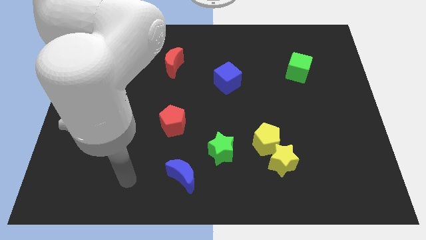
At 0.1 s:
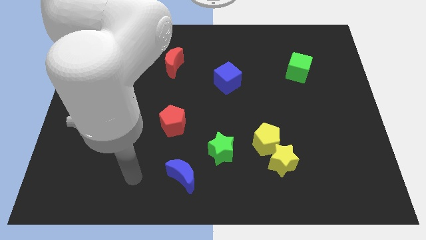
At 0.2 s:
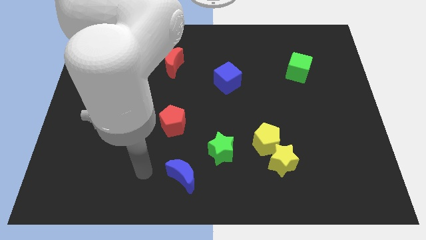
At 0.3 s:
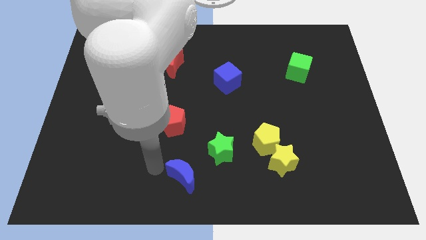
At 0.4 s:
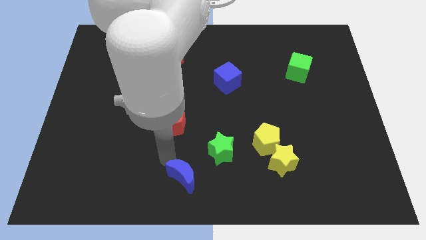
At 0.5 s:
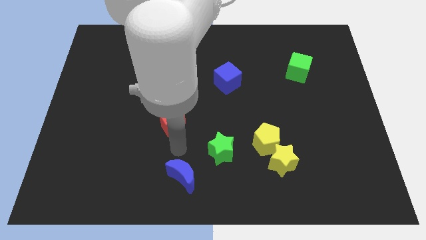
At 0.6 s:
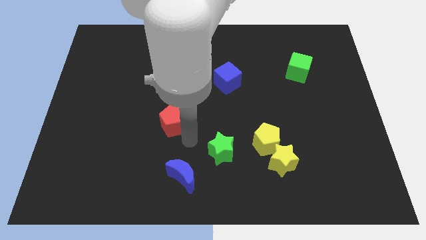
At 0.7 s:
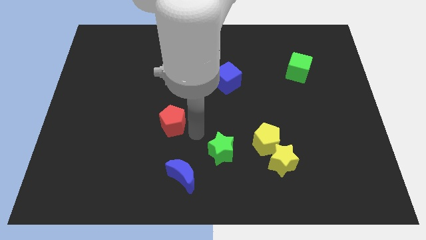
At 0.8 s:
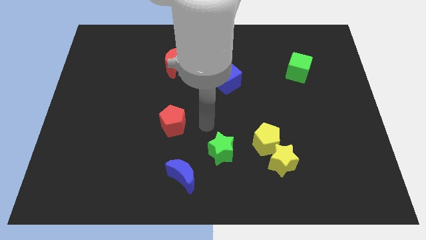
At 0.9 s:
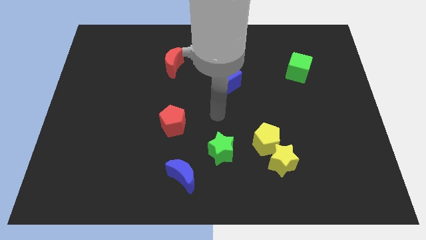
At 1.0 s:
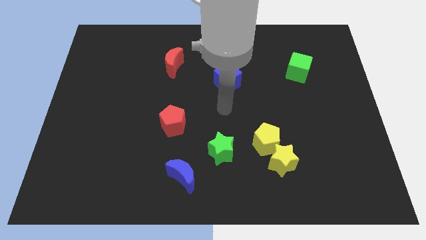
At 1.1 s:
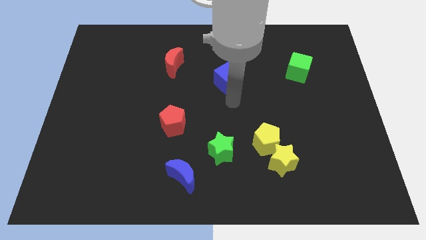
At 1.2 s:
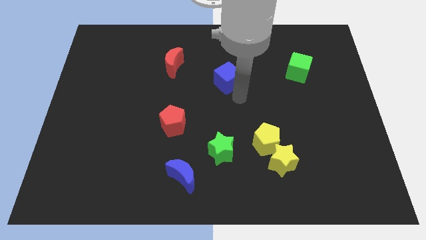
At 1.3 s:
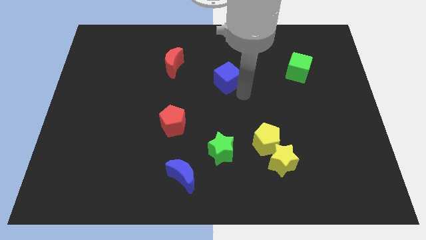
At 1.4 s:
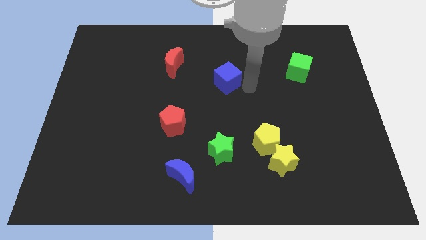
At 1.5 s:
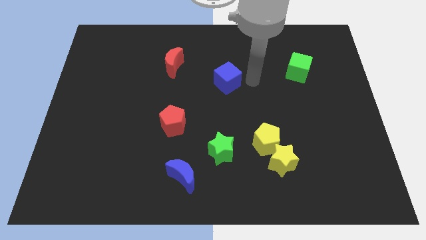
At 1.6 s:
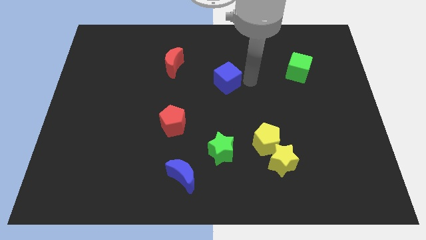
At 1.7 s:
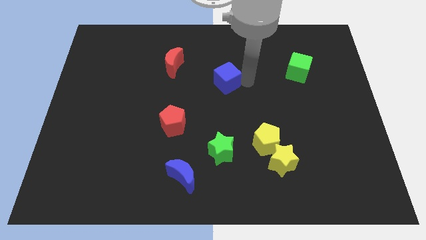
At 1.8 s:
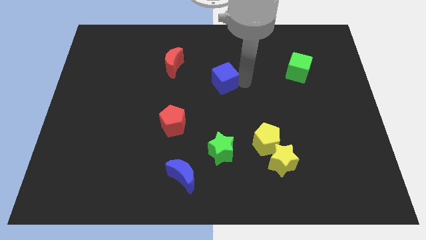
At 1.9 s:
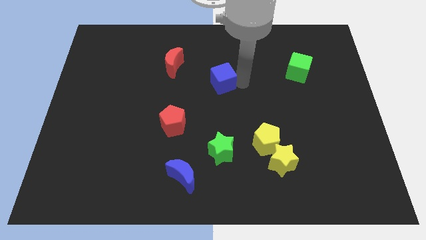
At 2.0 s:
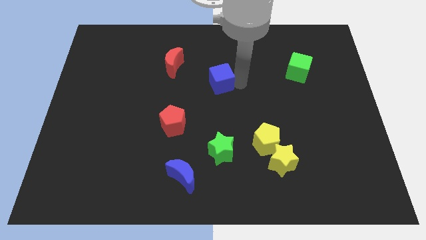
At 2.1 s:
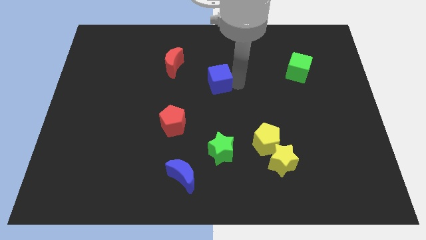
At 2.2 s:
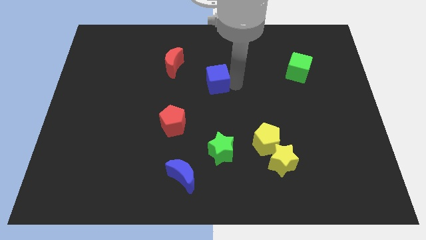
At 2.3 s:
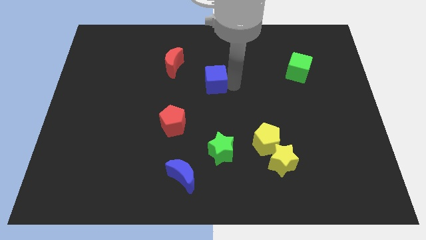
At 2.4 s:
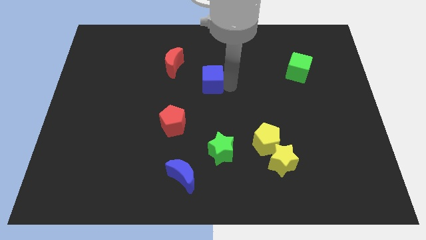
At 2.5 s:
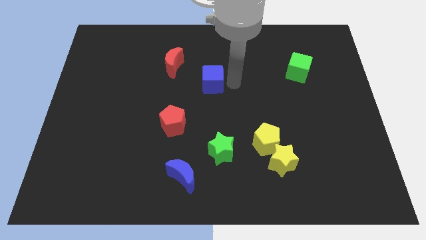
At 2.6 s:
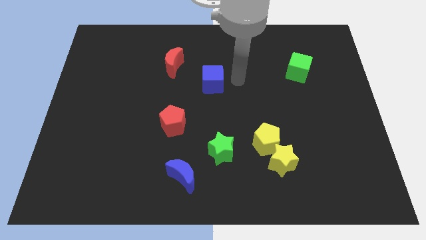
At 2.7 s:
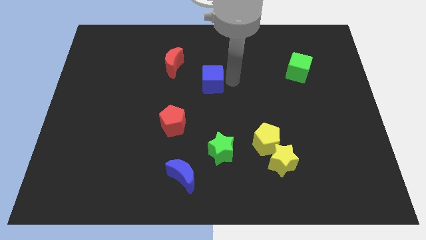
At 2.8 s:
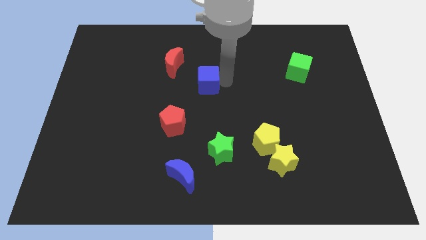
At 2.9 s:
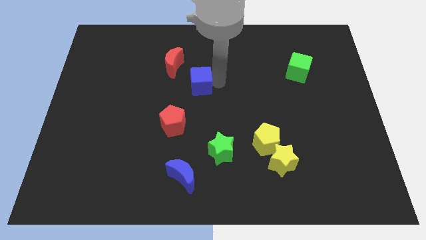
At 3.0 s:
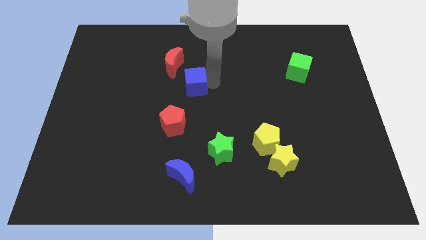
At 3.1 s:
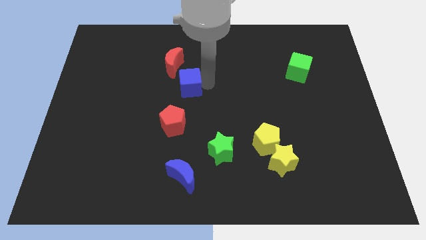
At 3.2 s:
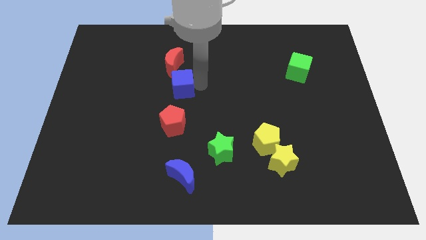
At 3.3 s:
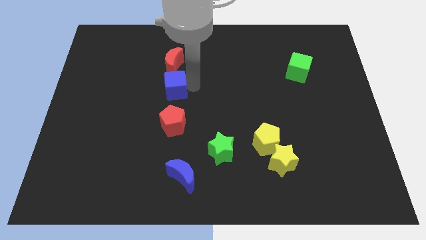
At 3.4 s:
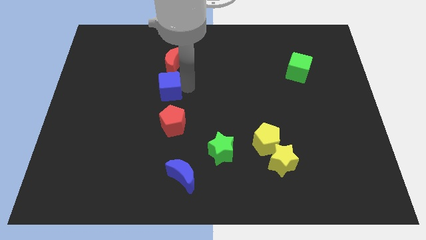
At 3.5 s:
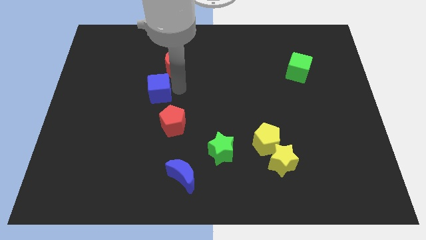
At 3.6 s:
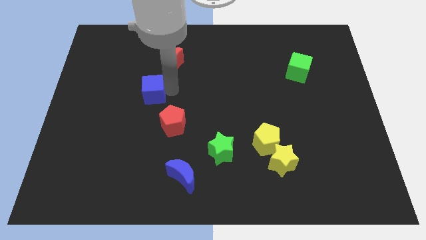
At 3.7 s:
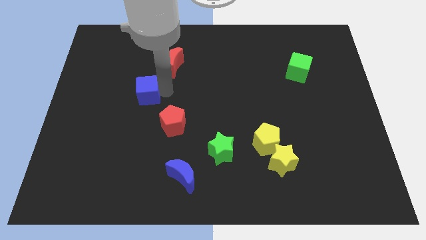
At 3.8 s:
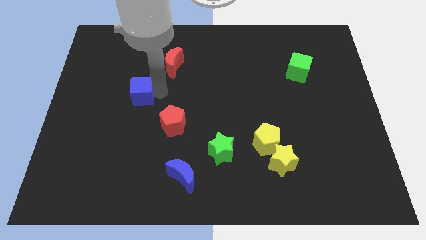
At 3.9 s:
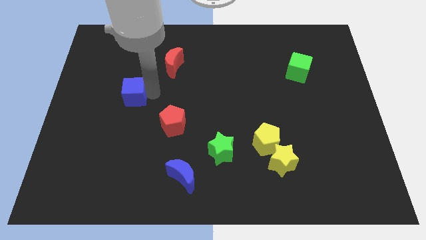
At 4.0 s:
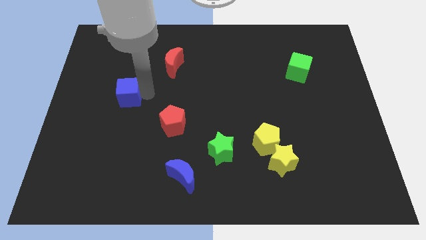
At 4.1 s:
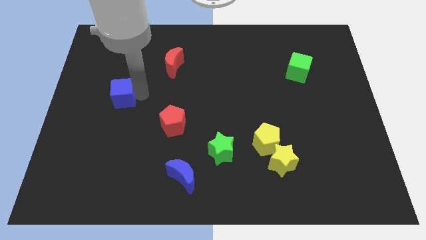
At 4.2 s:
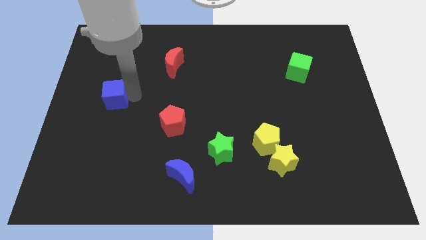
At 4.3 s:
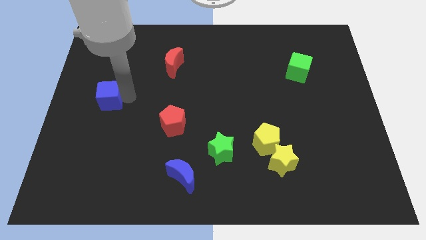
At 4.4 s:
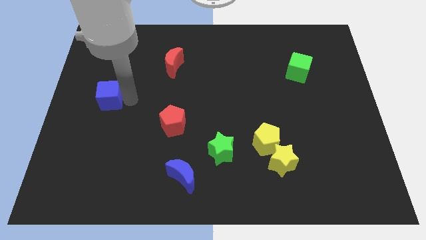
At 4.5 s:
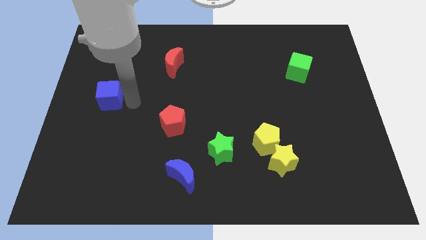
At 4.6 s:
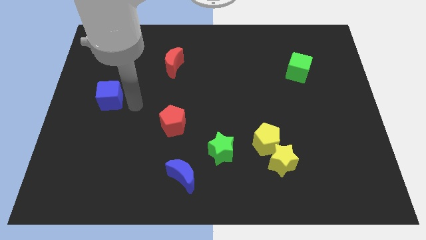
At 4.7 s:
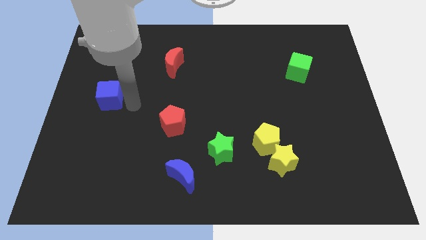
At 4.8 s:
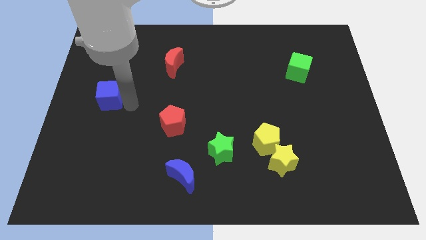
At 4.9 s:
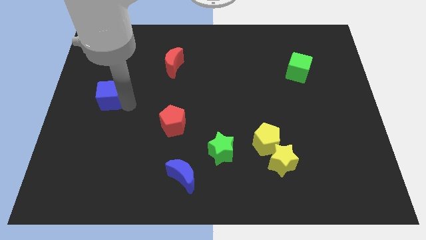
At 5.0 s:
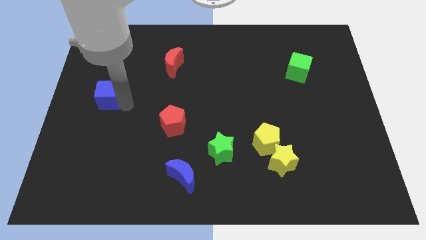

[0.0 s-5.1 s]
put the blue cube to the left side

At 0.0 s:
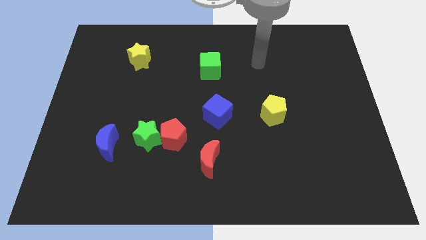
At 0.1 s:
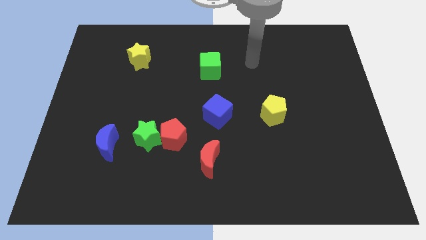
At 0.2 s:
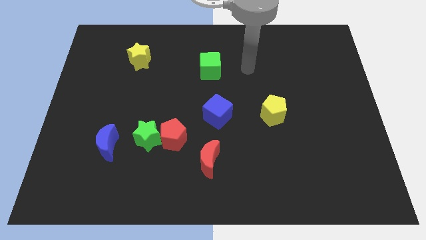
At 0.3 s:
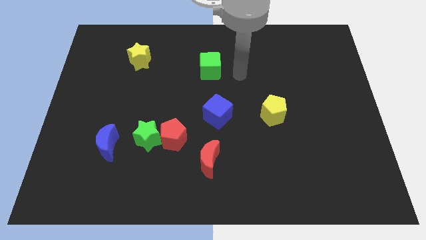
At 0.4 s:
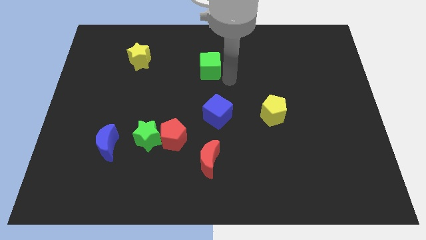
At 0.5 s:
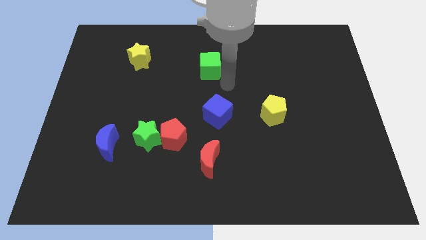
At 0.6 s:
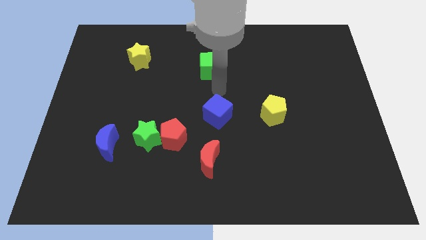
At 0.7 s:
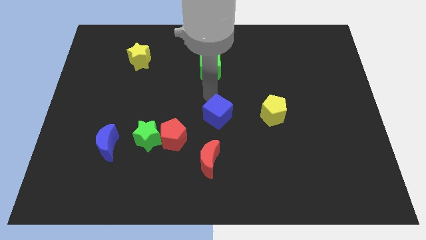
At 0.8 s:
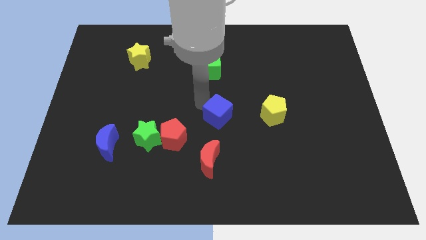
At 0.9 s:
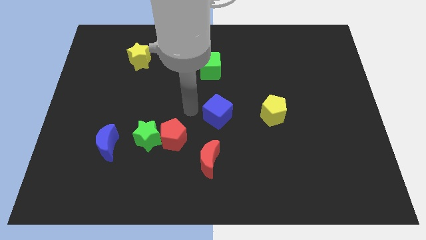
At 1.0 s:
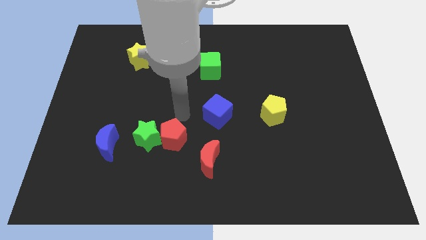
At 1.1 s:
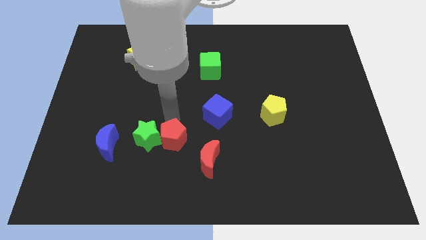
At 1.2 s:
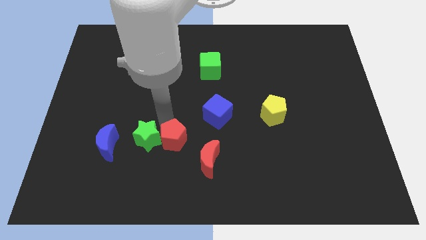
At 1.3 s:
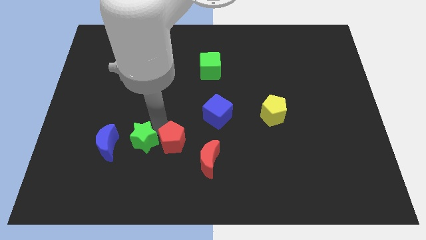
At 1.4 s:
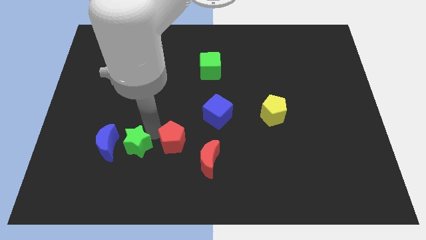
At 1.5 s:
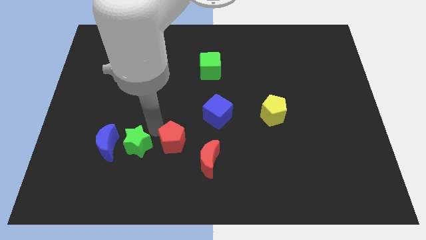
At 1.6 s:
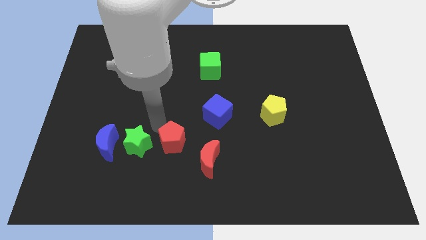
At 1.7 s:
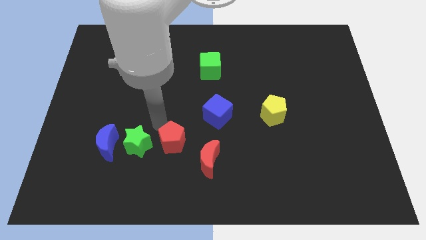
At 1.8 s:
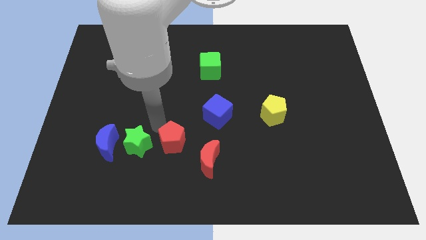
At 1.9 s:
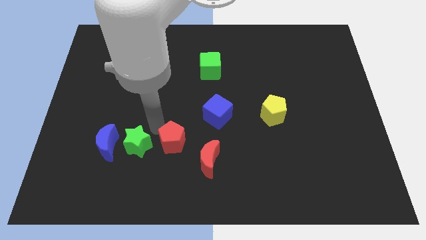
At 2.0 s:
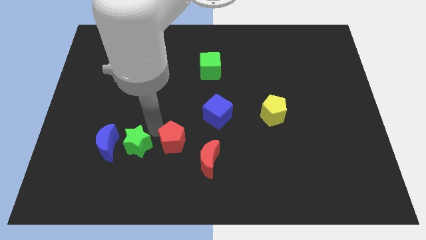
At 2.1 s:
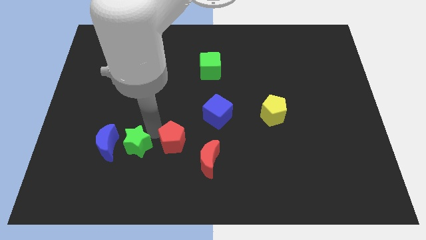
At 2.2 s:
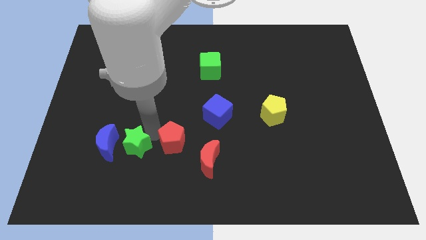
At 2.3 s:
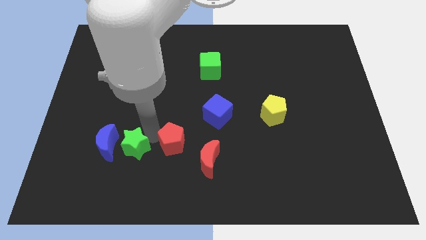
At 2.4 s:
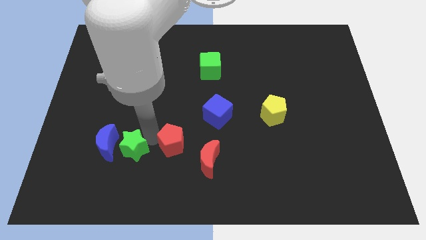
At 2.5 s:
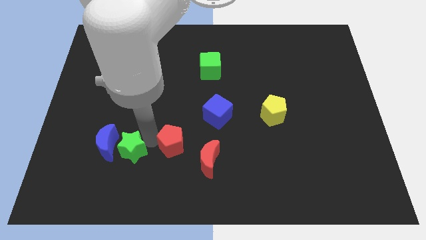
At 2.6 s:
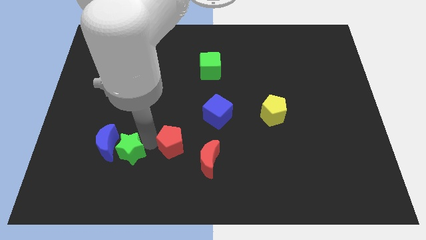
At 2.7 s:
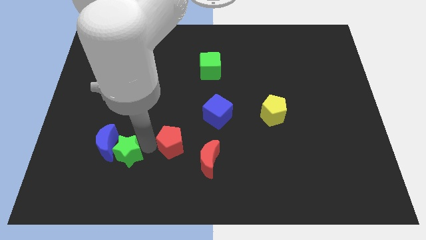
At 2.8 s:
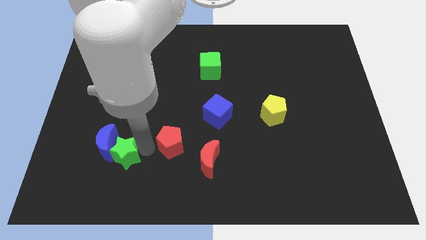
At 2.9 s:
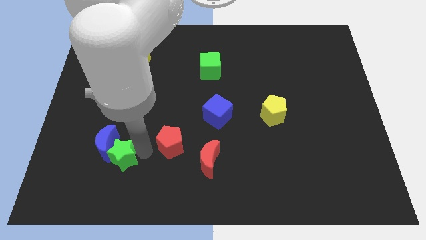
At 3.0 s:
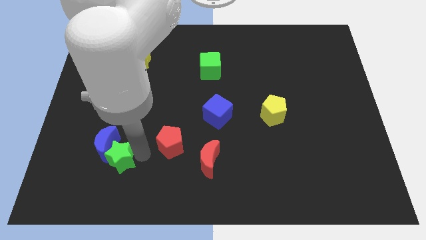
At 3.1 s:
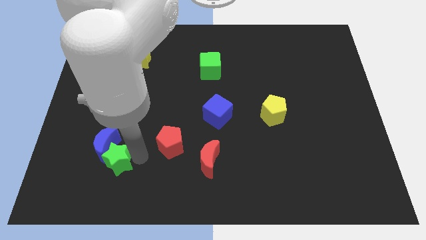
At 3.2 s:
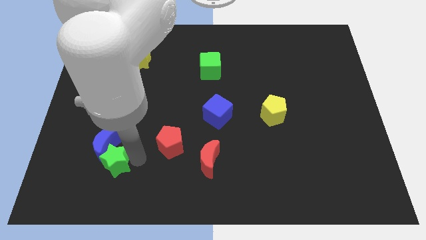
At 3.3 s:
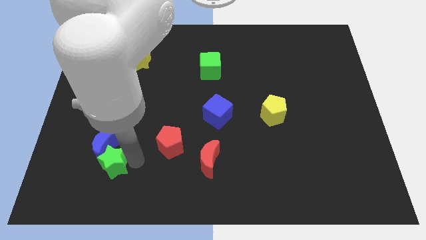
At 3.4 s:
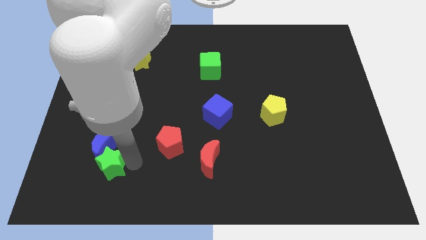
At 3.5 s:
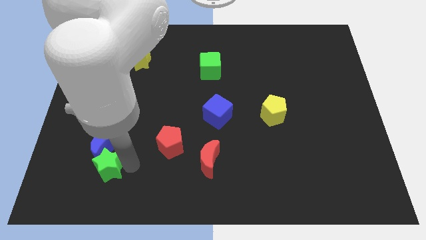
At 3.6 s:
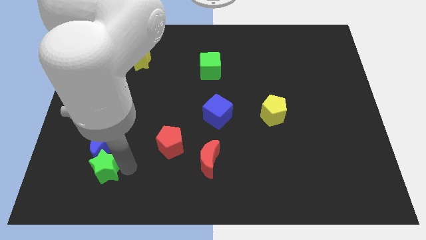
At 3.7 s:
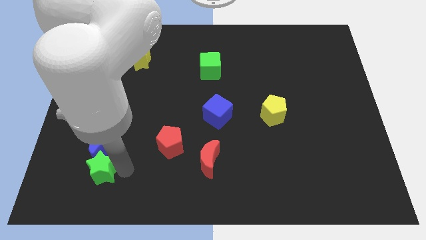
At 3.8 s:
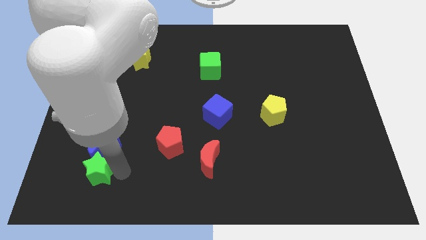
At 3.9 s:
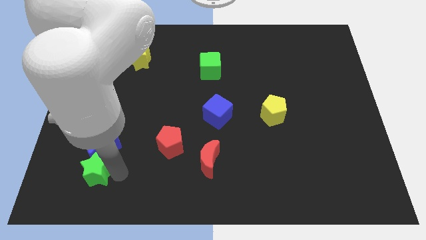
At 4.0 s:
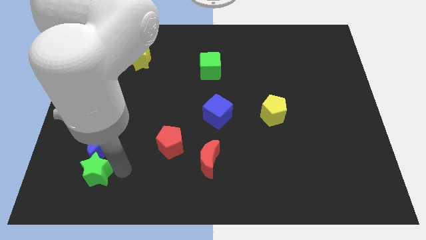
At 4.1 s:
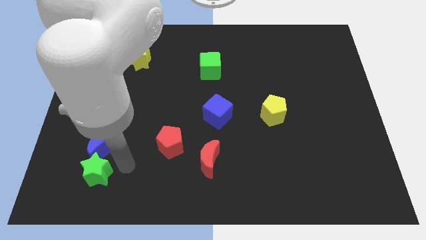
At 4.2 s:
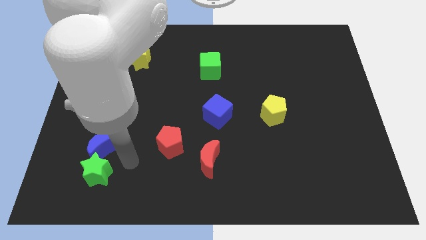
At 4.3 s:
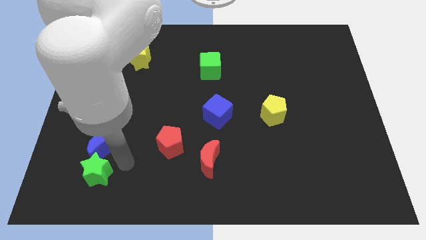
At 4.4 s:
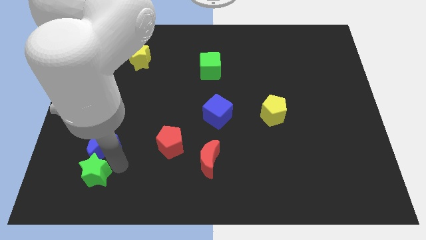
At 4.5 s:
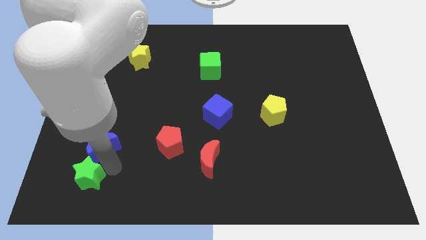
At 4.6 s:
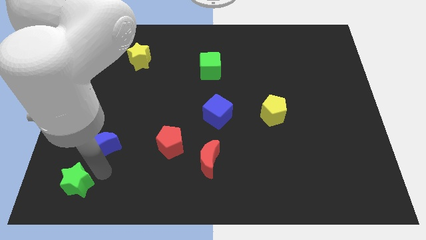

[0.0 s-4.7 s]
slide the green star to the lower left corner
